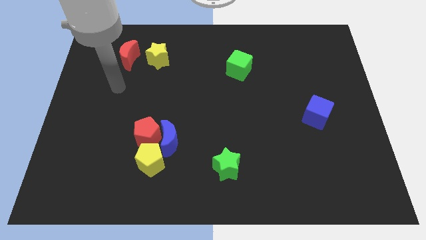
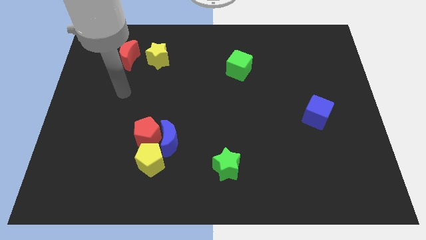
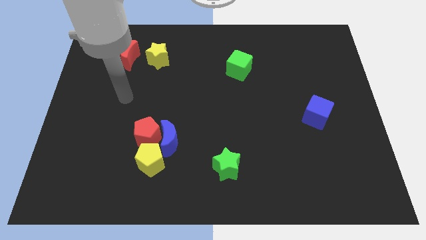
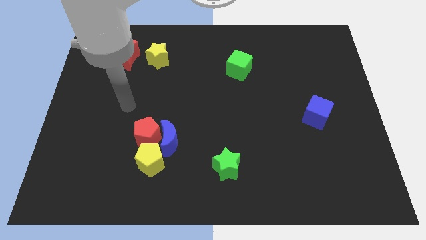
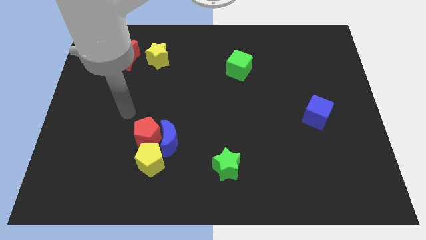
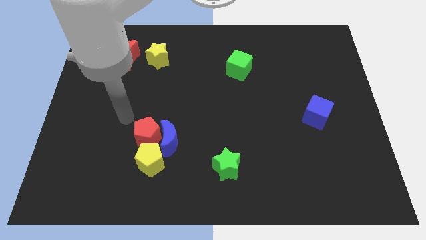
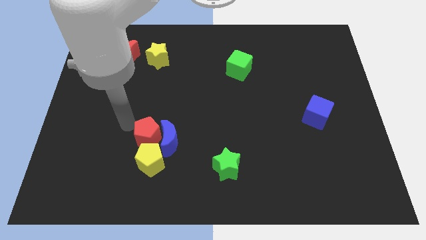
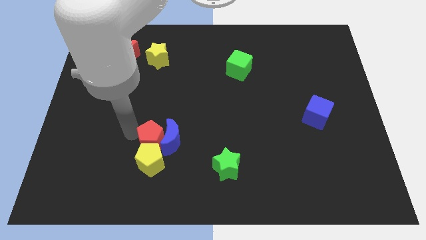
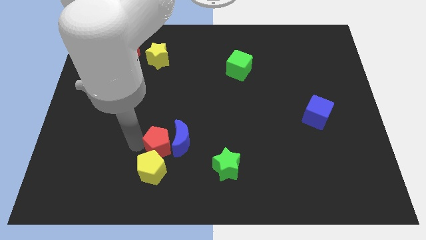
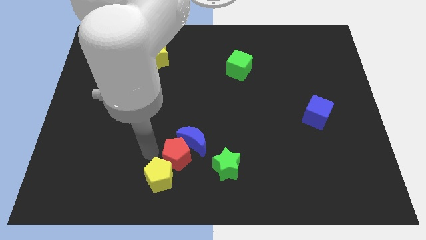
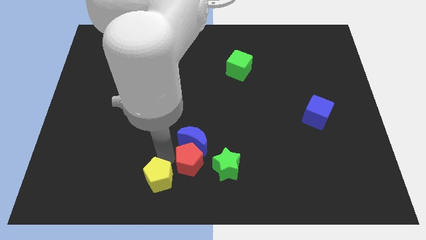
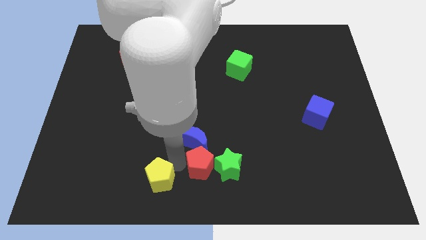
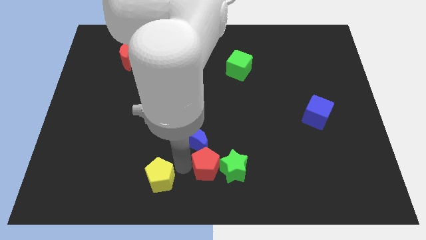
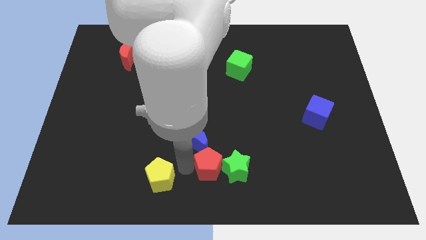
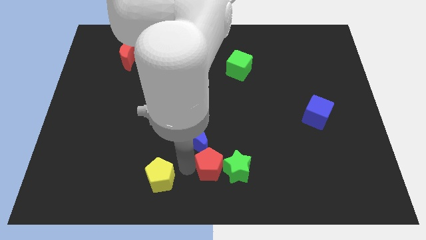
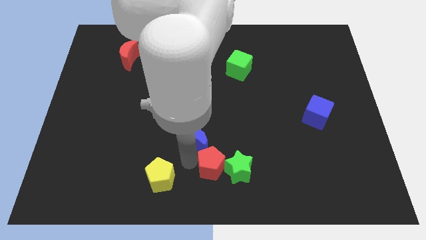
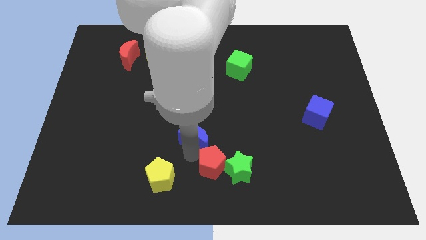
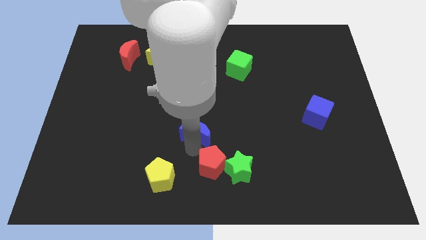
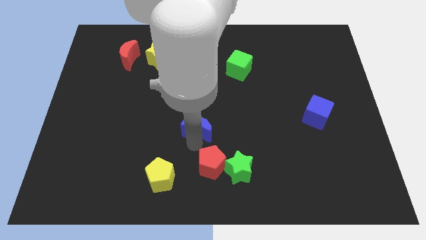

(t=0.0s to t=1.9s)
move the blue moon away from the red pentagon and yellow pentagon

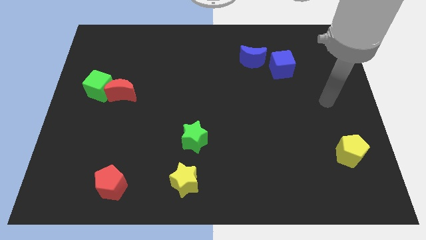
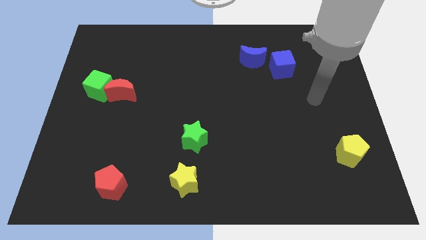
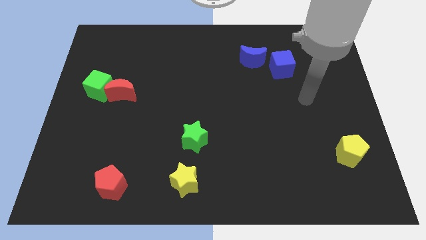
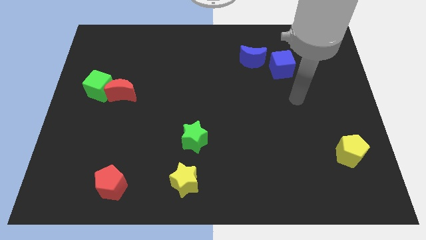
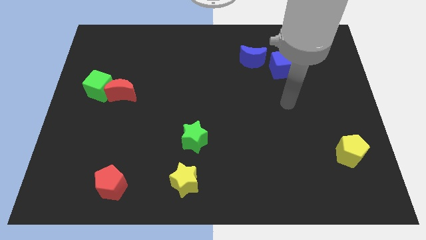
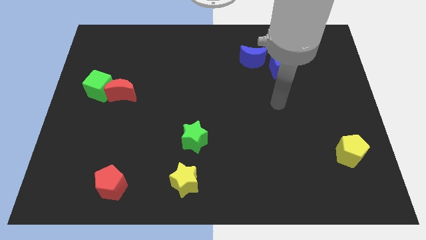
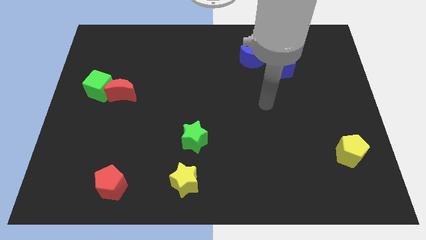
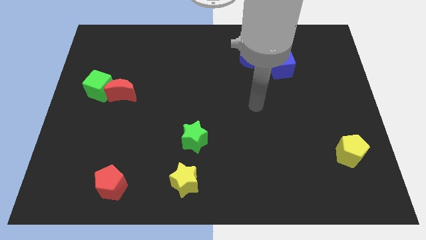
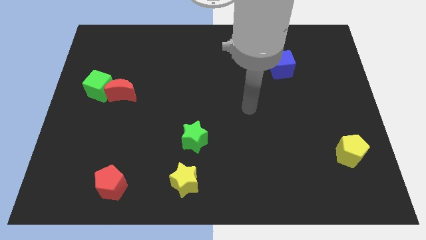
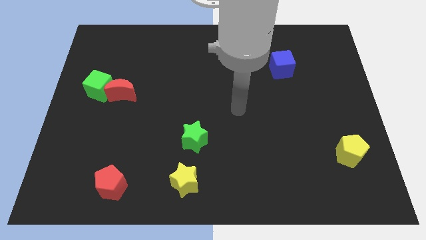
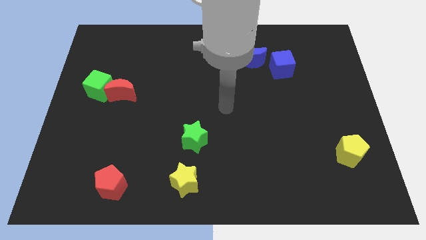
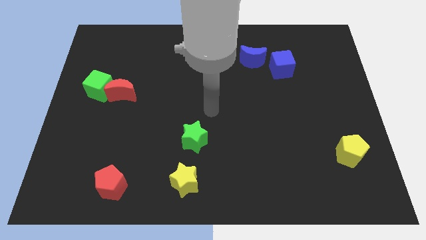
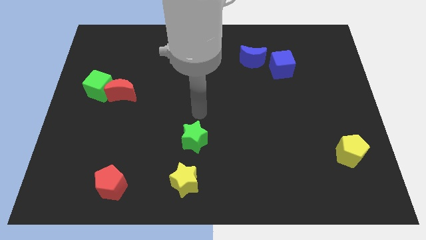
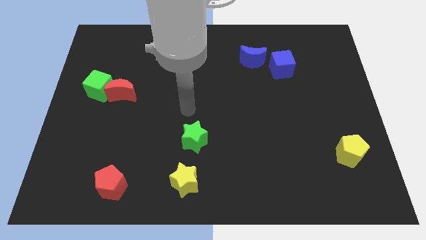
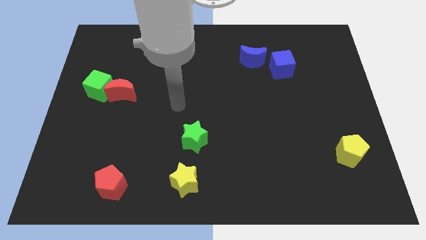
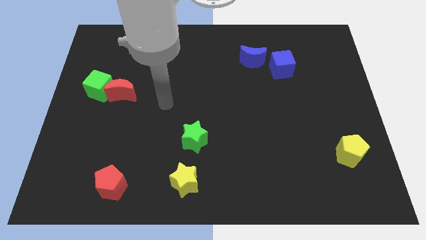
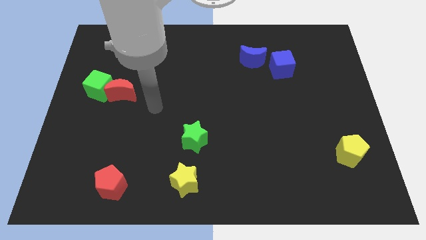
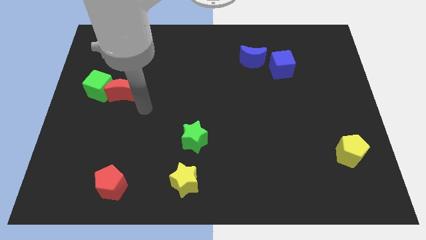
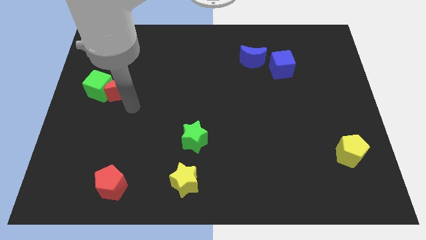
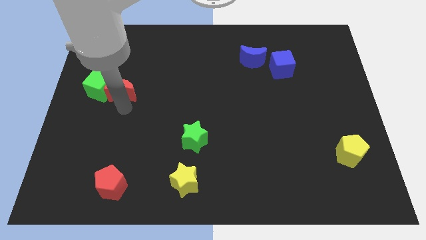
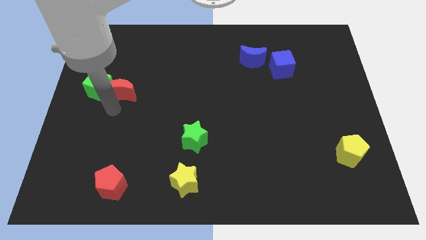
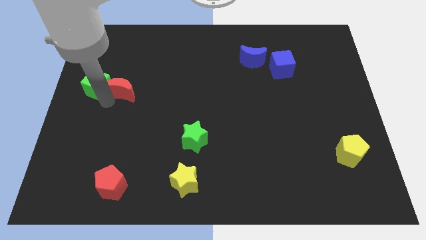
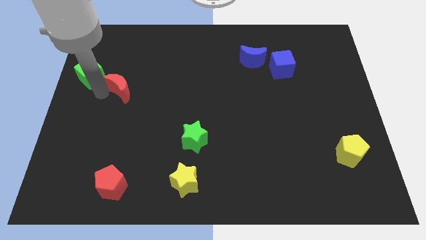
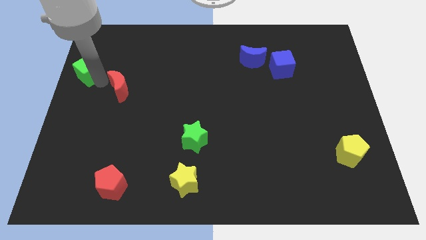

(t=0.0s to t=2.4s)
pull the red moon apart from the green cube

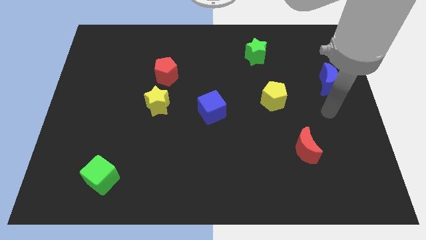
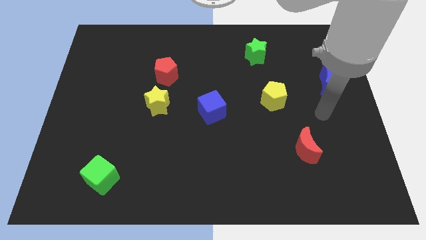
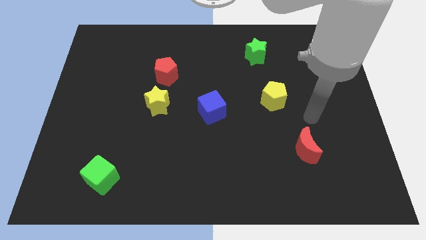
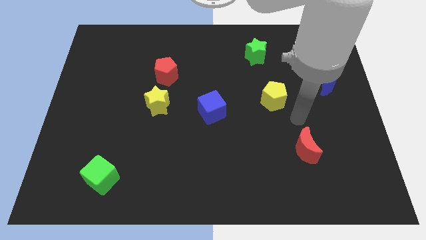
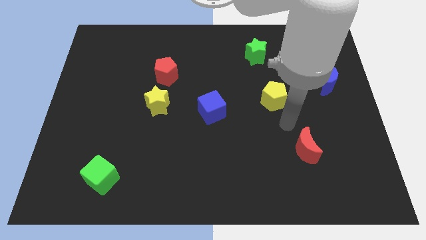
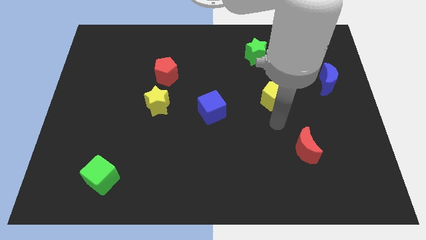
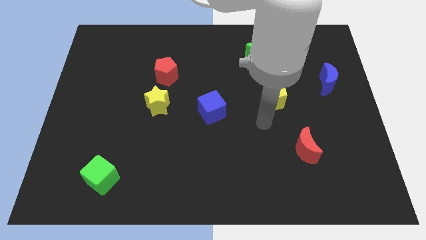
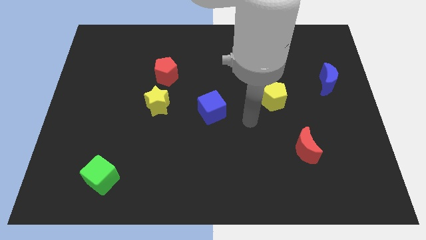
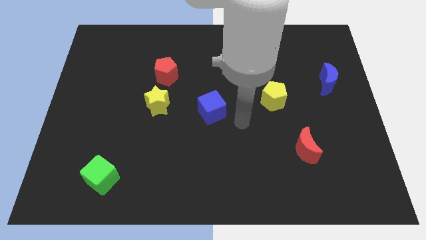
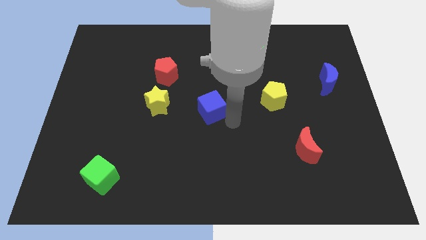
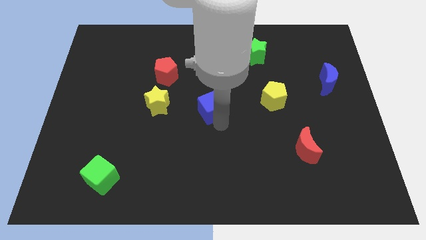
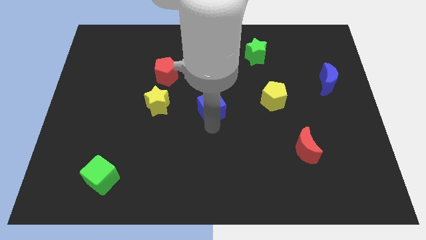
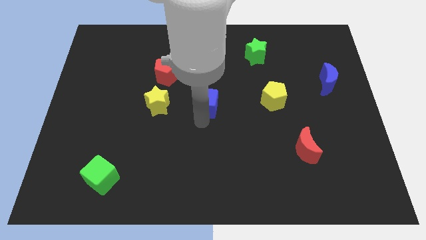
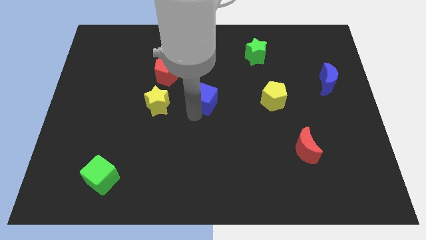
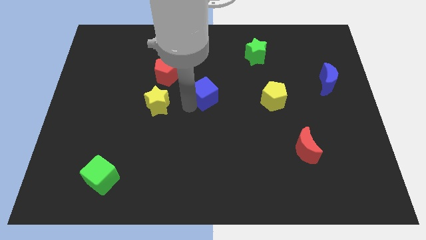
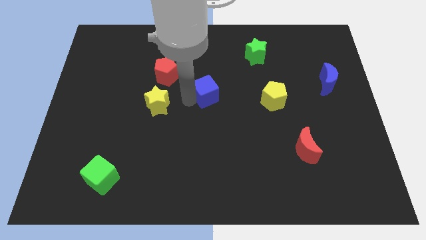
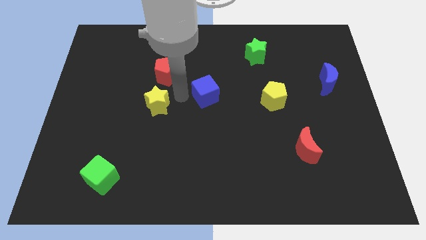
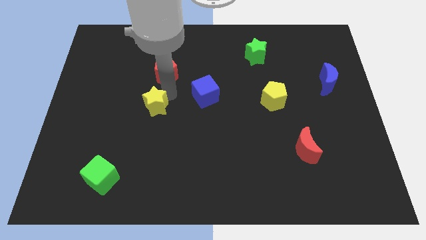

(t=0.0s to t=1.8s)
move the red pentagon away from the yellow star

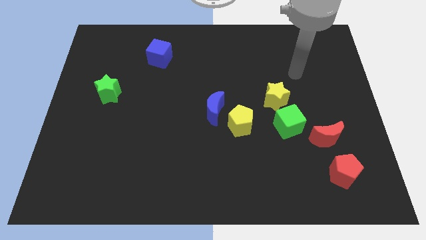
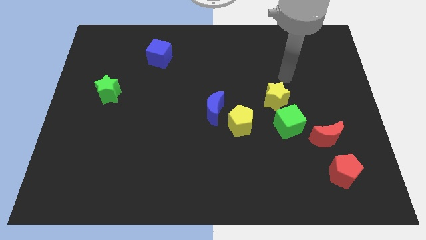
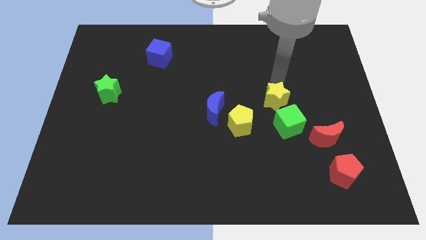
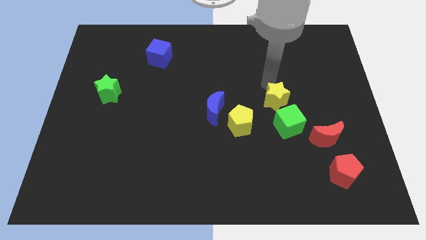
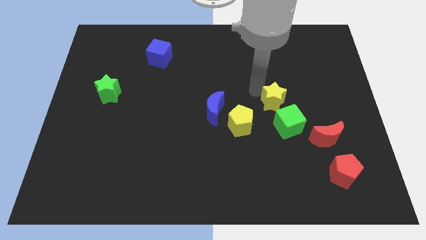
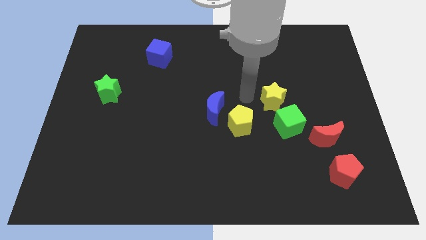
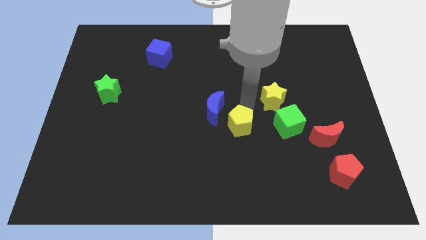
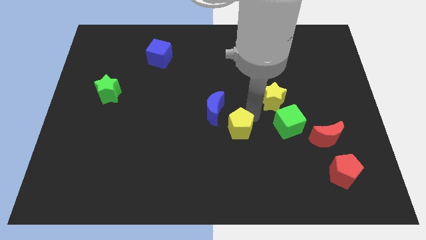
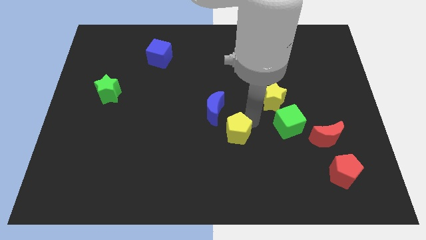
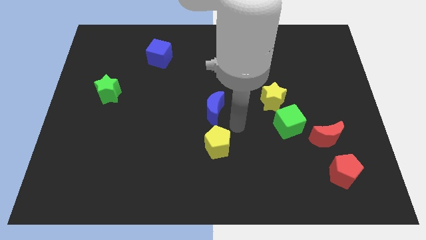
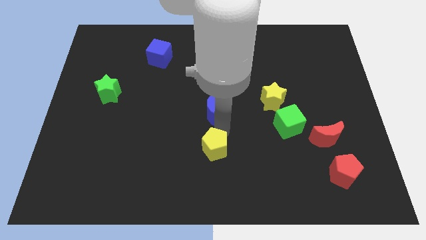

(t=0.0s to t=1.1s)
separate the blue moon from the yellow pentagon

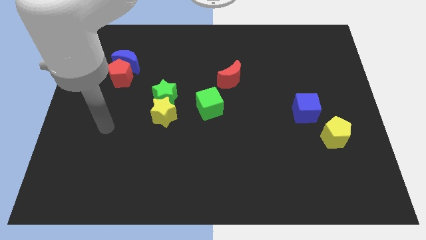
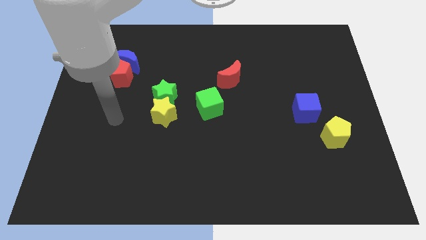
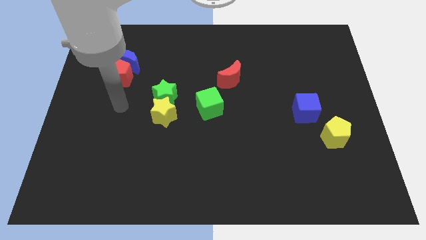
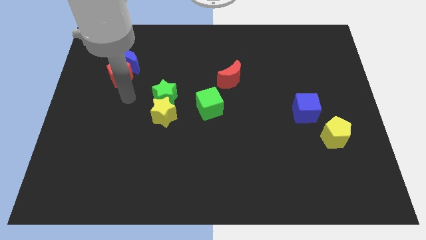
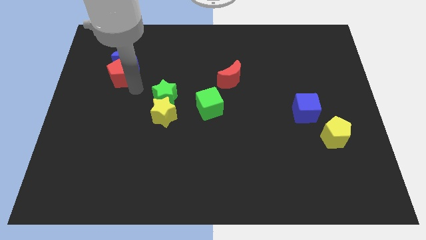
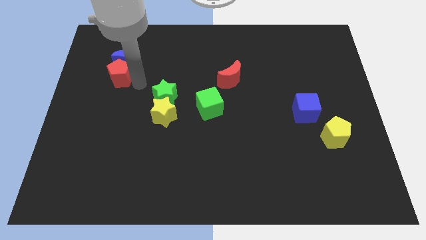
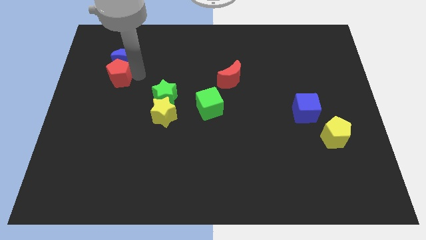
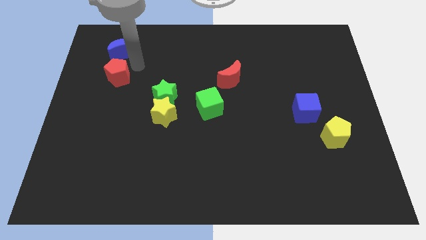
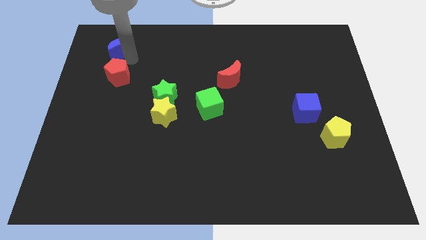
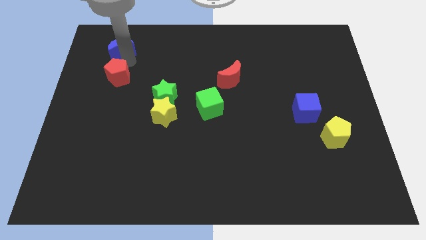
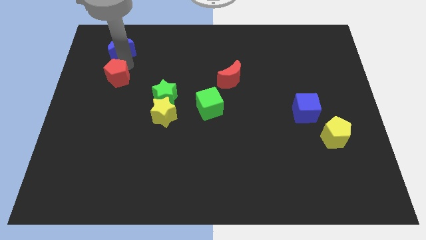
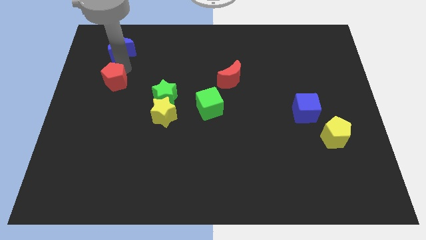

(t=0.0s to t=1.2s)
pull the red pentagon apart from the blue moon

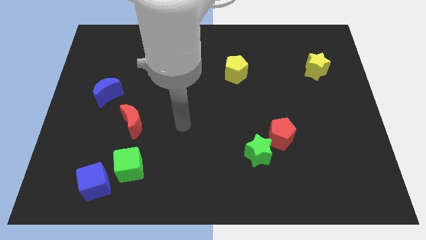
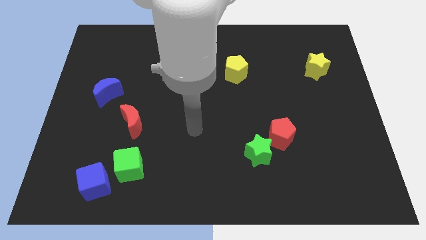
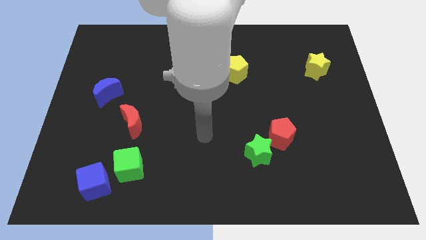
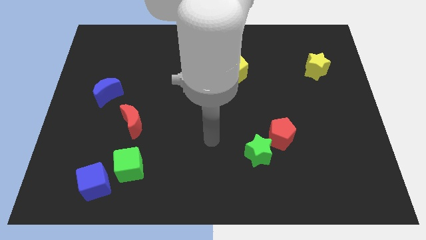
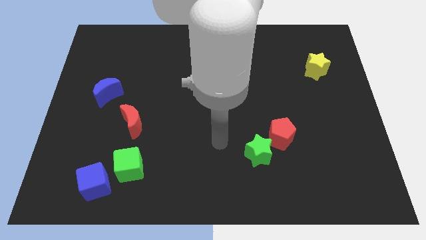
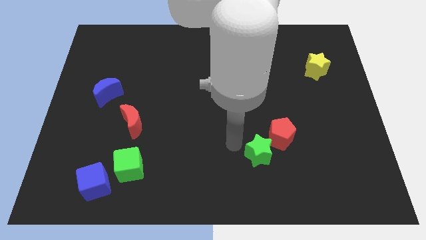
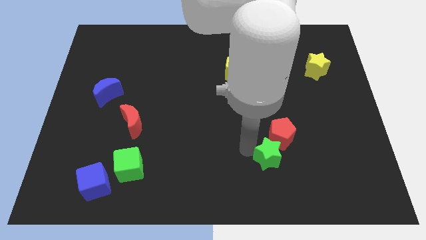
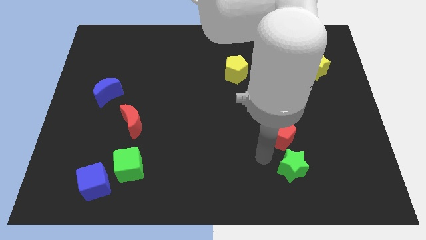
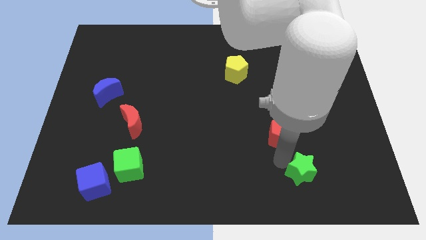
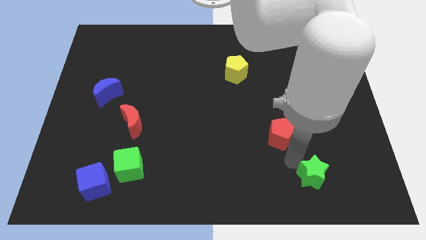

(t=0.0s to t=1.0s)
pull the red pentagon apart from the green star
